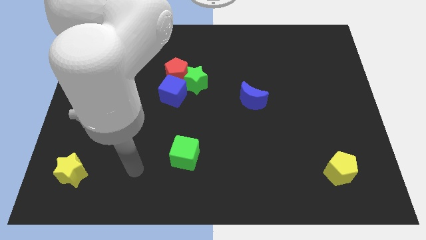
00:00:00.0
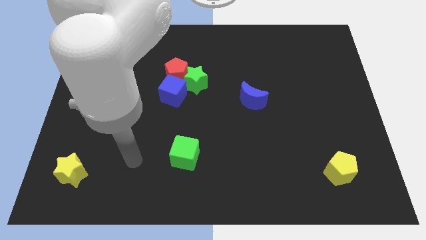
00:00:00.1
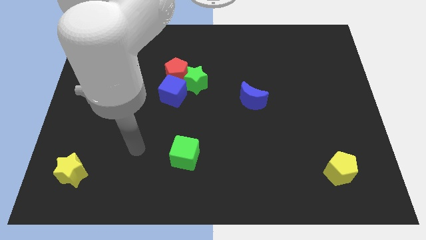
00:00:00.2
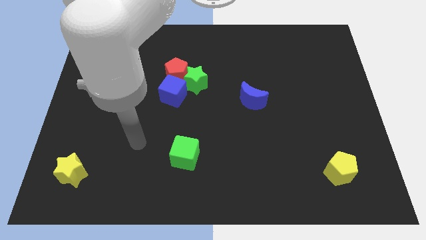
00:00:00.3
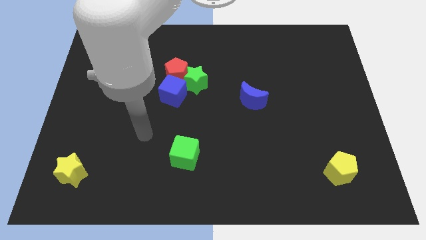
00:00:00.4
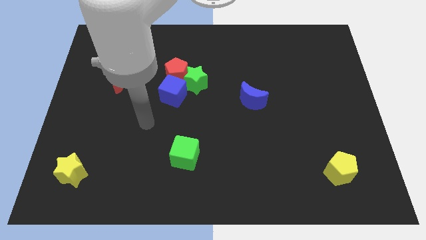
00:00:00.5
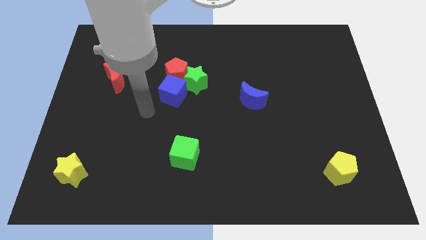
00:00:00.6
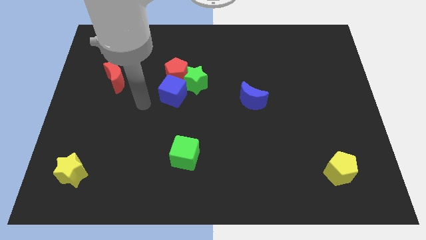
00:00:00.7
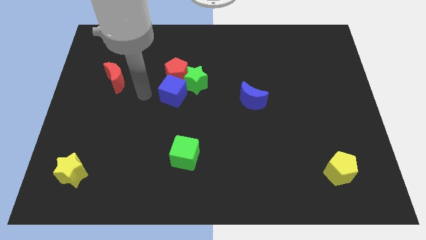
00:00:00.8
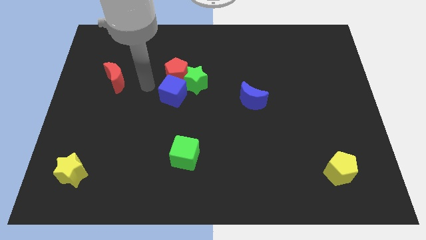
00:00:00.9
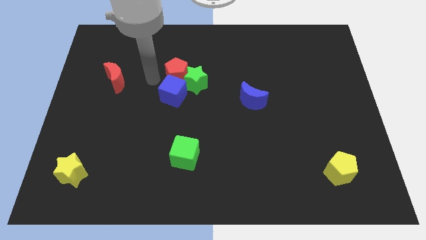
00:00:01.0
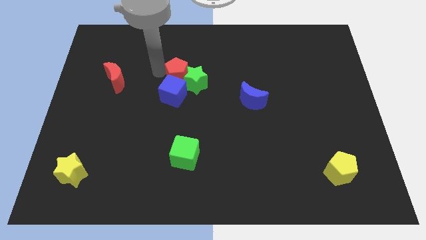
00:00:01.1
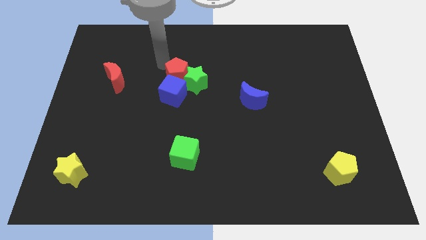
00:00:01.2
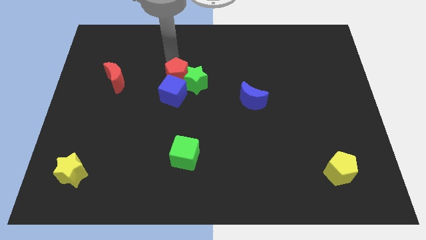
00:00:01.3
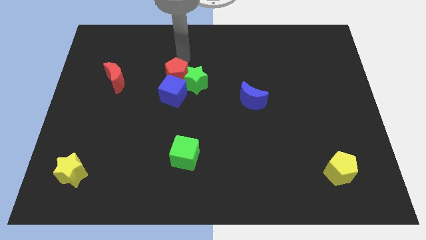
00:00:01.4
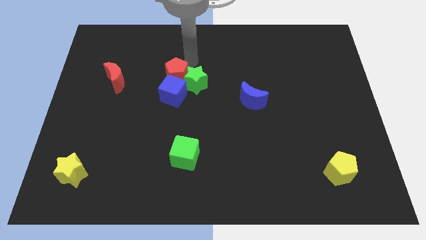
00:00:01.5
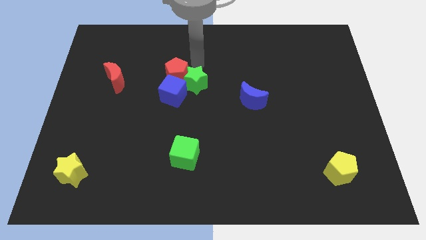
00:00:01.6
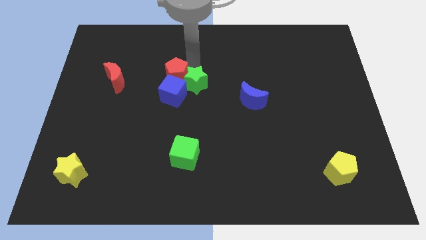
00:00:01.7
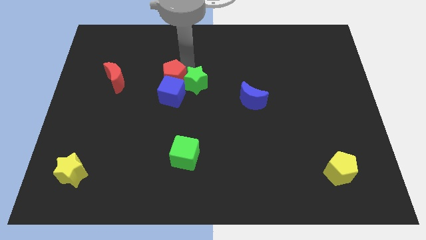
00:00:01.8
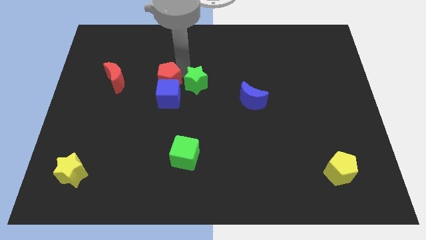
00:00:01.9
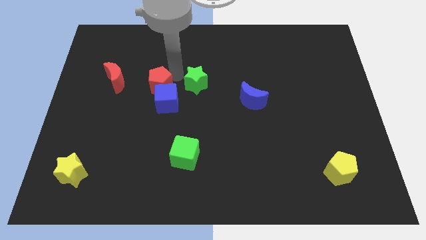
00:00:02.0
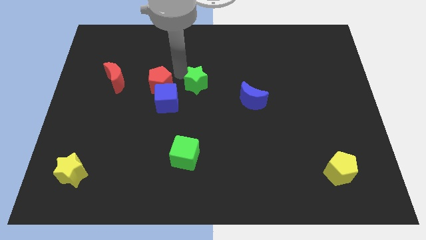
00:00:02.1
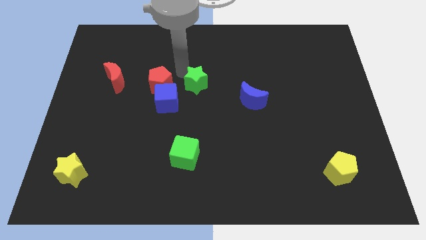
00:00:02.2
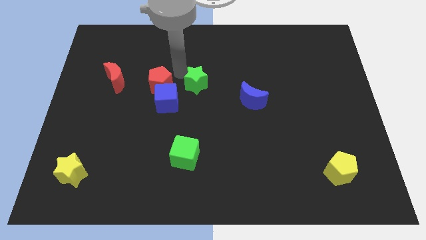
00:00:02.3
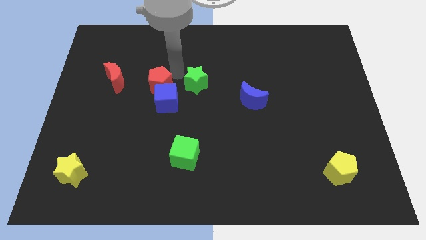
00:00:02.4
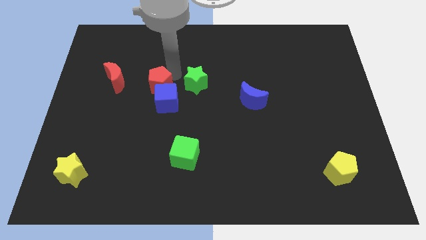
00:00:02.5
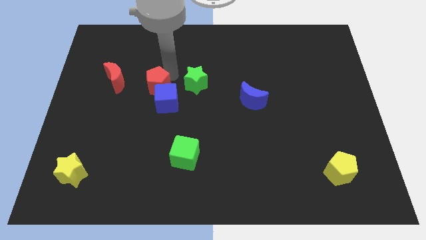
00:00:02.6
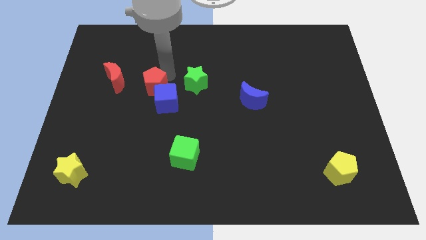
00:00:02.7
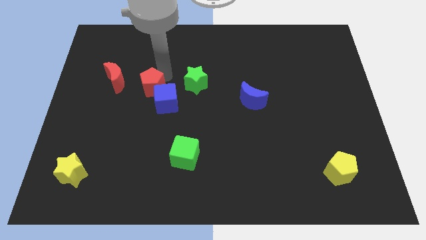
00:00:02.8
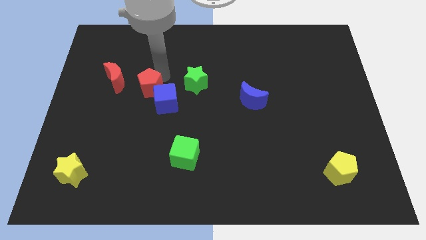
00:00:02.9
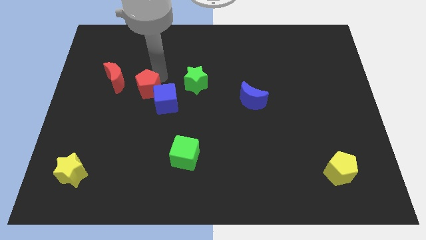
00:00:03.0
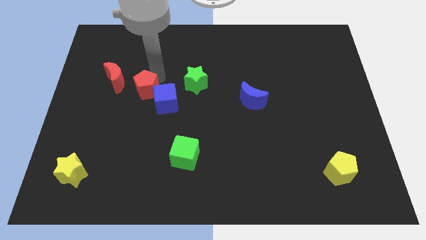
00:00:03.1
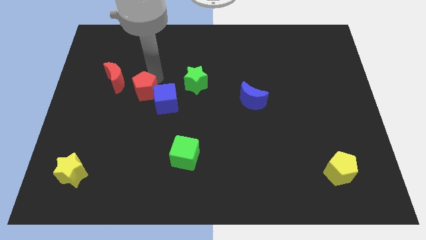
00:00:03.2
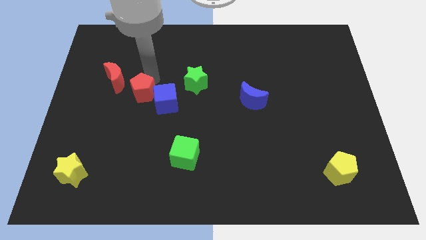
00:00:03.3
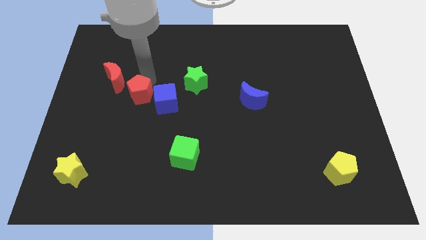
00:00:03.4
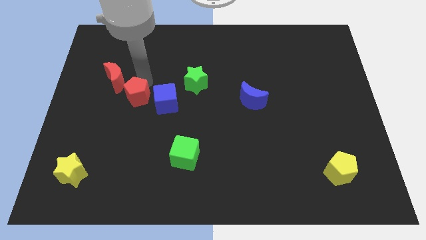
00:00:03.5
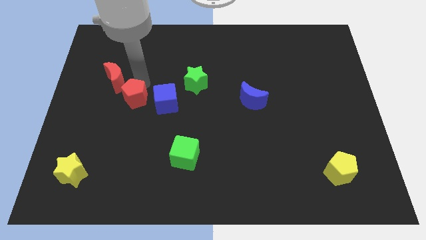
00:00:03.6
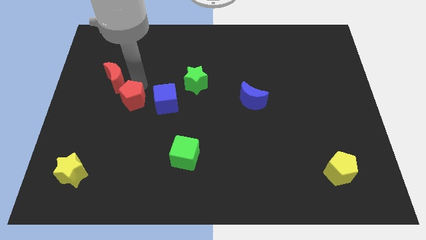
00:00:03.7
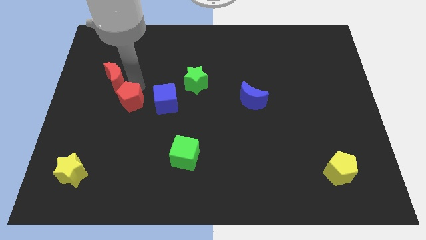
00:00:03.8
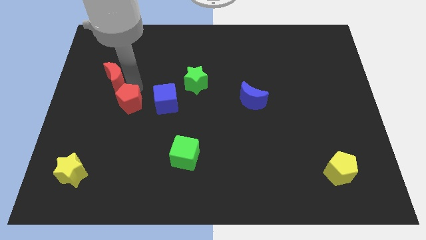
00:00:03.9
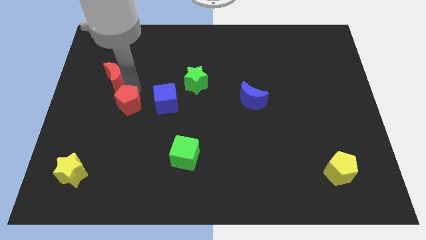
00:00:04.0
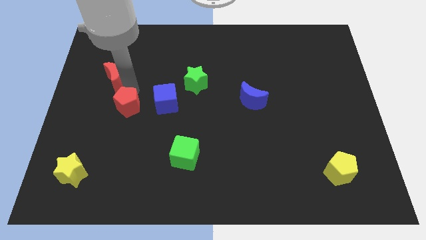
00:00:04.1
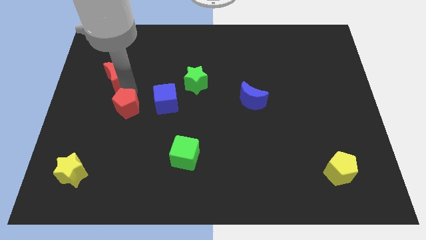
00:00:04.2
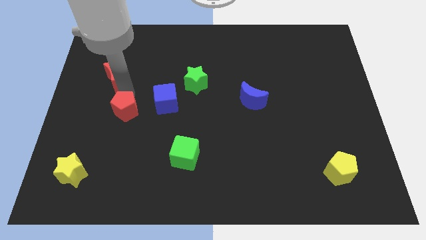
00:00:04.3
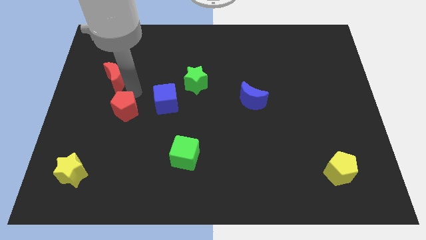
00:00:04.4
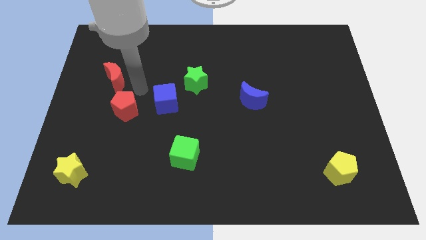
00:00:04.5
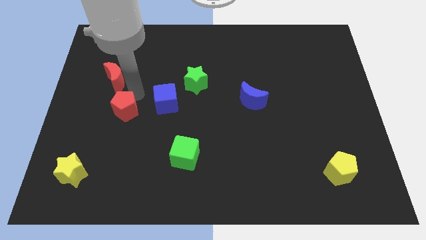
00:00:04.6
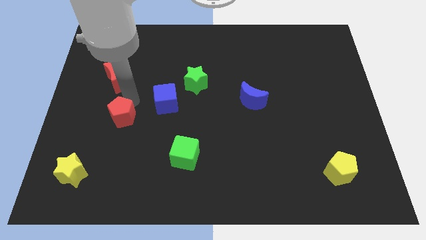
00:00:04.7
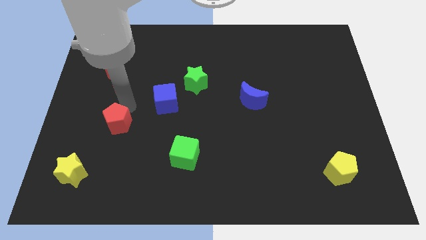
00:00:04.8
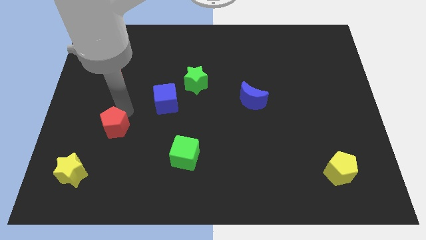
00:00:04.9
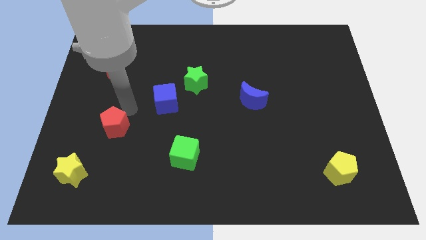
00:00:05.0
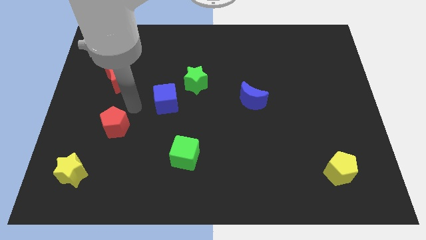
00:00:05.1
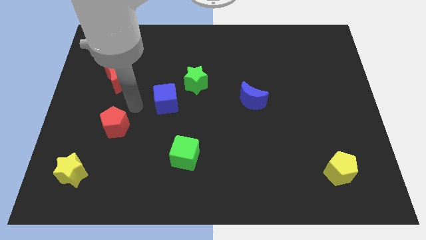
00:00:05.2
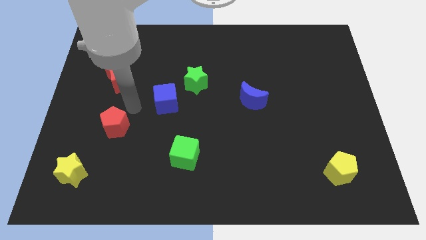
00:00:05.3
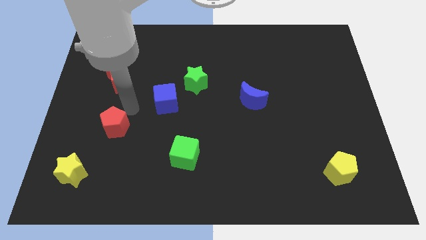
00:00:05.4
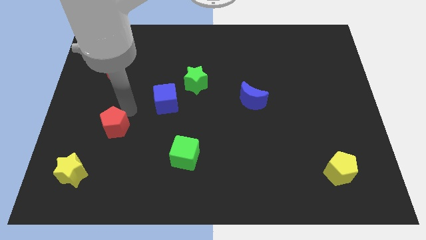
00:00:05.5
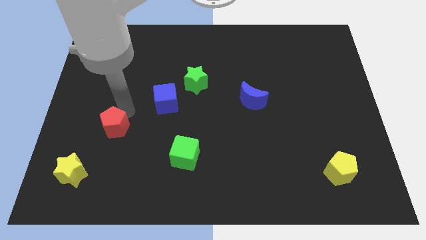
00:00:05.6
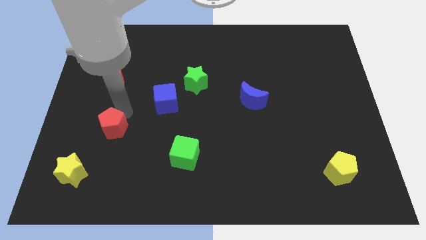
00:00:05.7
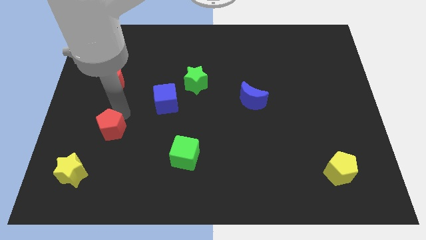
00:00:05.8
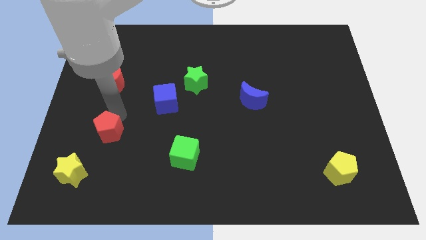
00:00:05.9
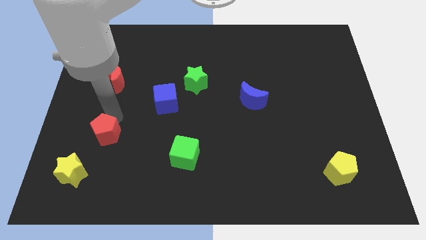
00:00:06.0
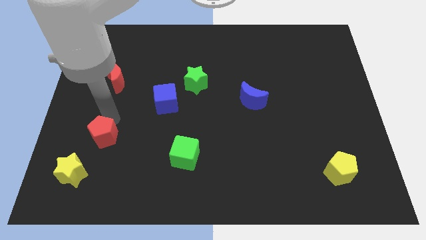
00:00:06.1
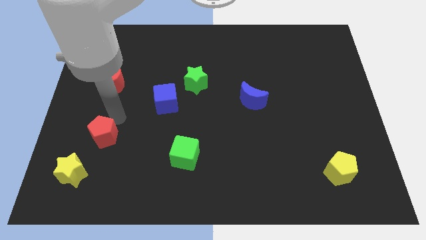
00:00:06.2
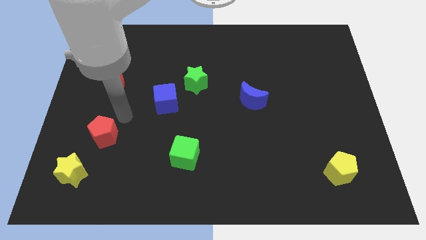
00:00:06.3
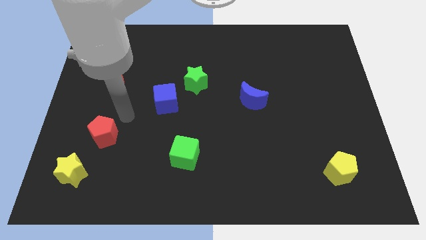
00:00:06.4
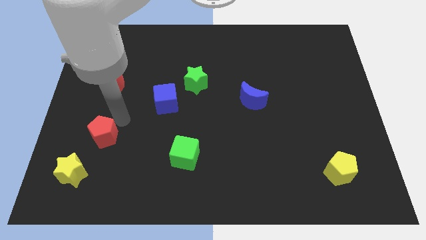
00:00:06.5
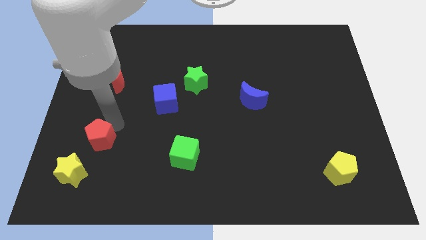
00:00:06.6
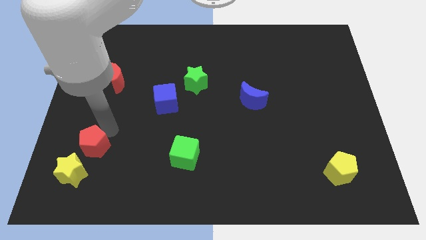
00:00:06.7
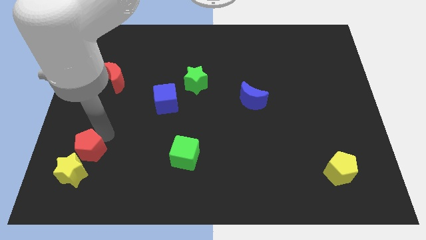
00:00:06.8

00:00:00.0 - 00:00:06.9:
move the red pentagon next to the yellow star
